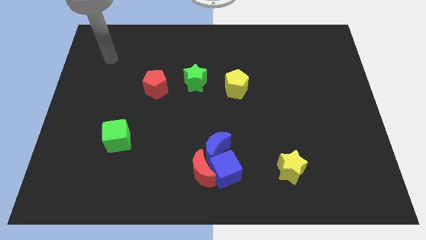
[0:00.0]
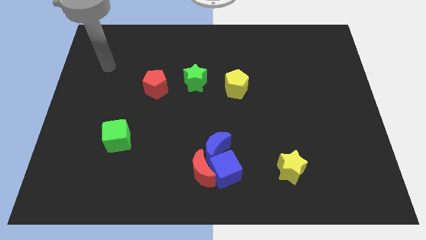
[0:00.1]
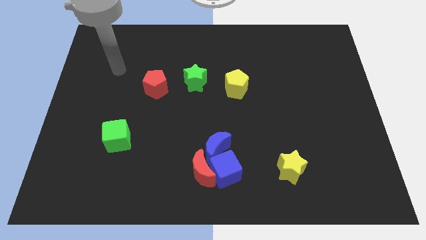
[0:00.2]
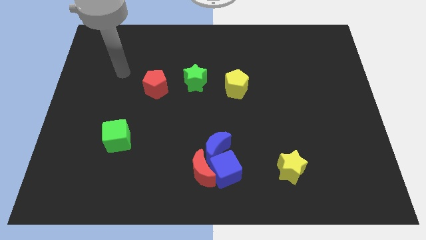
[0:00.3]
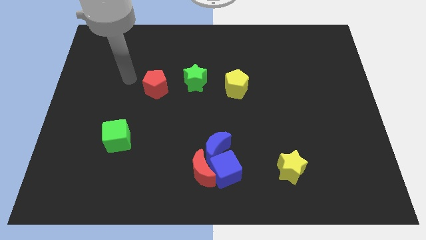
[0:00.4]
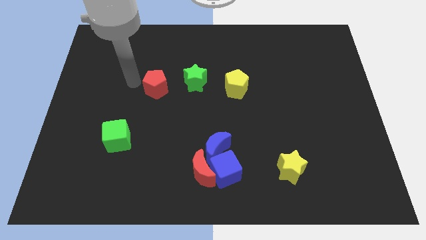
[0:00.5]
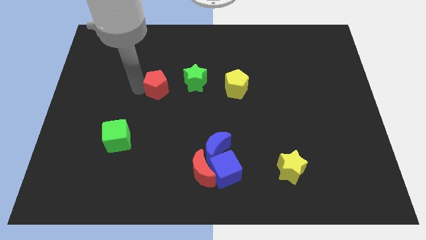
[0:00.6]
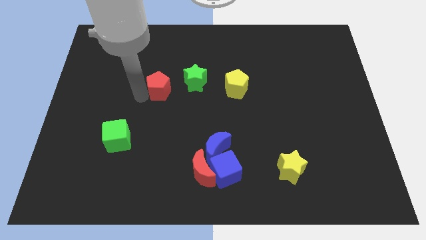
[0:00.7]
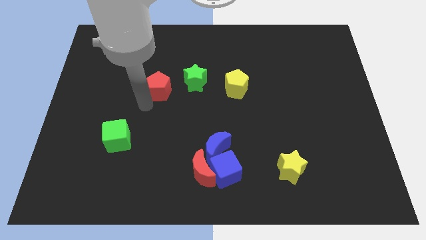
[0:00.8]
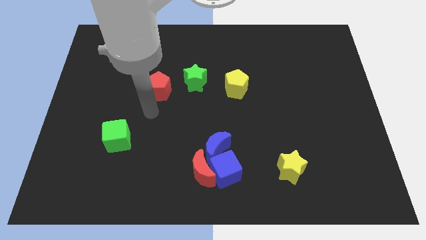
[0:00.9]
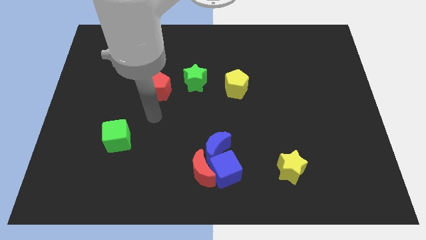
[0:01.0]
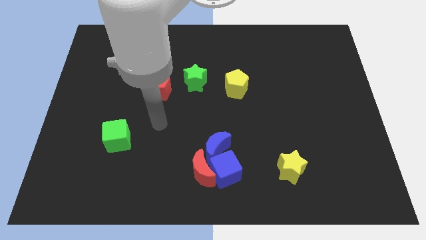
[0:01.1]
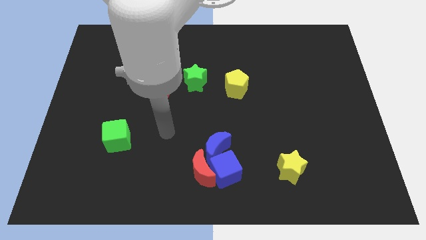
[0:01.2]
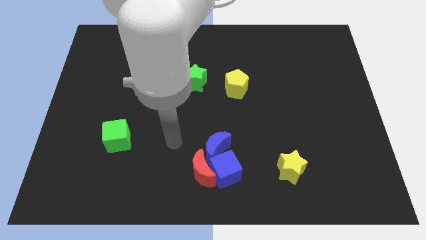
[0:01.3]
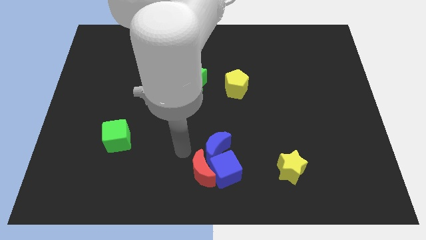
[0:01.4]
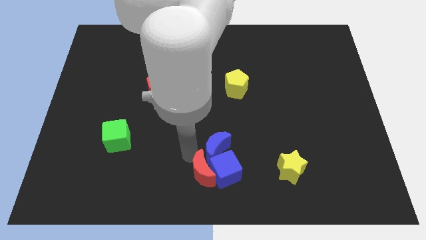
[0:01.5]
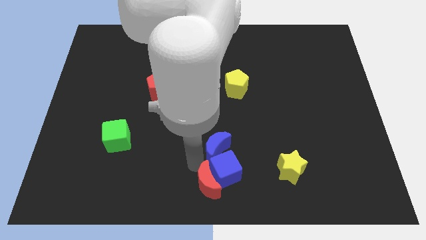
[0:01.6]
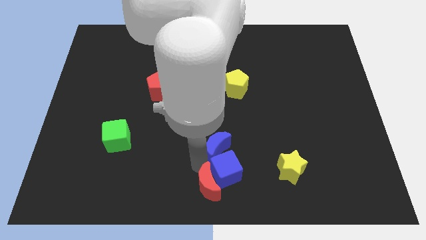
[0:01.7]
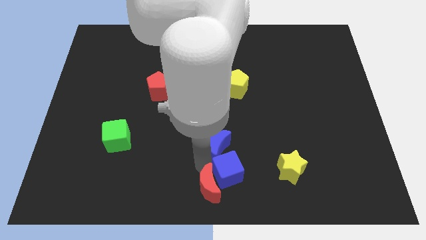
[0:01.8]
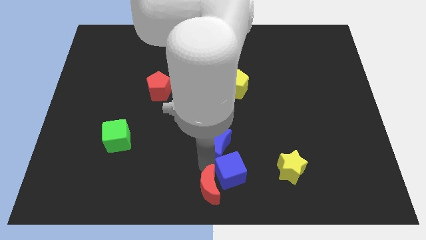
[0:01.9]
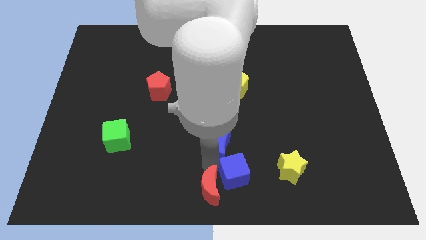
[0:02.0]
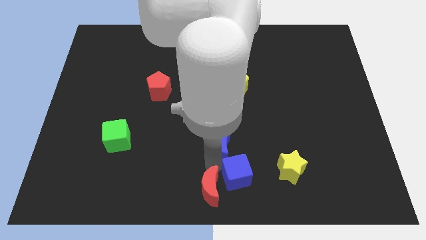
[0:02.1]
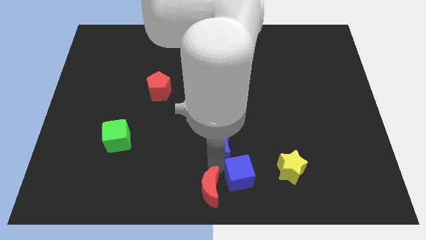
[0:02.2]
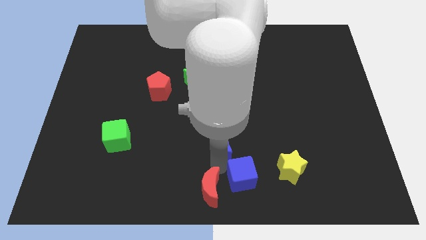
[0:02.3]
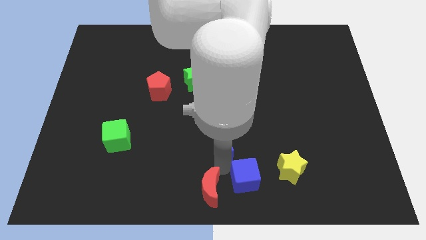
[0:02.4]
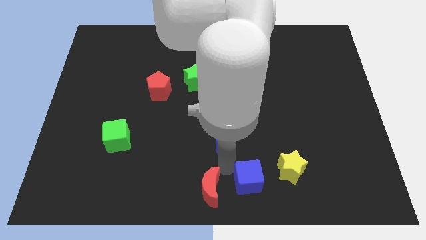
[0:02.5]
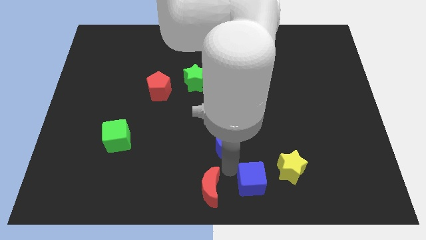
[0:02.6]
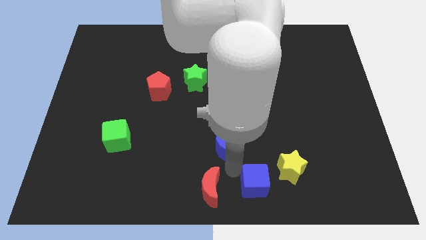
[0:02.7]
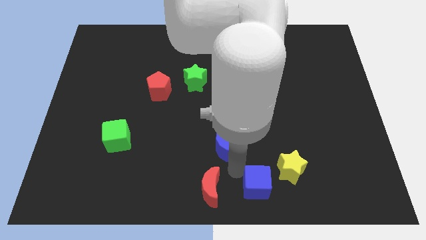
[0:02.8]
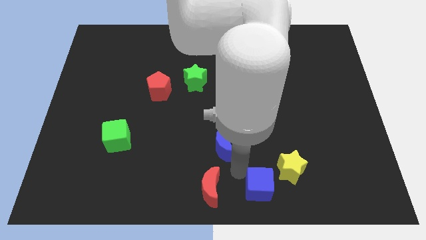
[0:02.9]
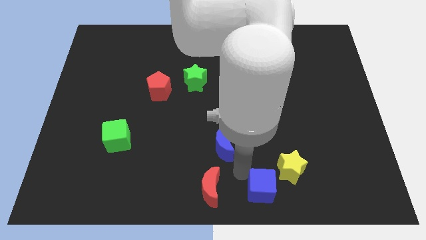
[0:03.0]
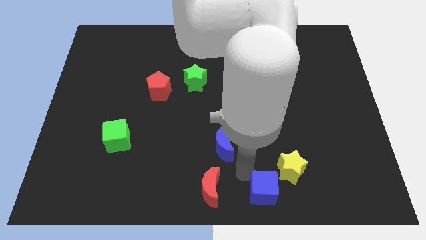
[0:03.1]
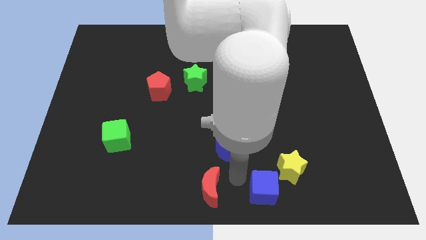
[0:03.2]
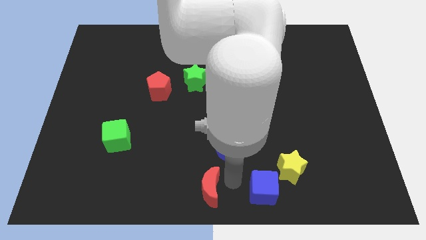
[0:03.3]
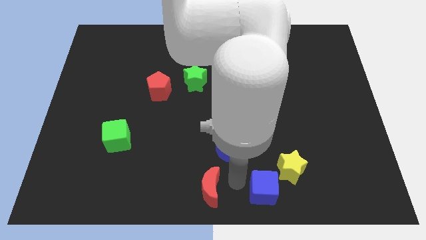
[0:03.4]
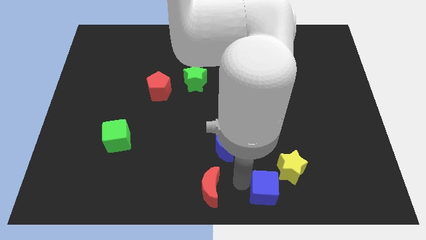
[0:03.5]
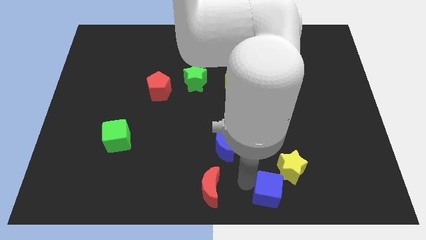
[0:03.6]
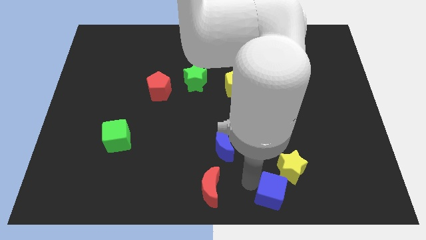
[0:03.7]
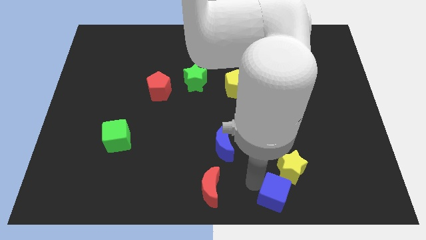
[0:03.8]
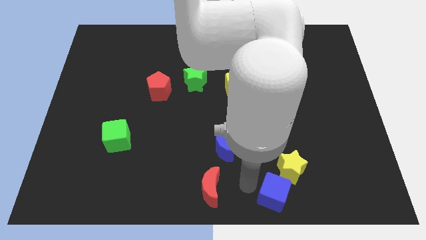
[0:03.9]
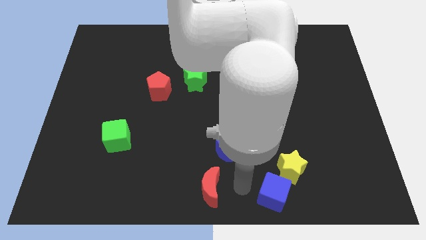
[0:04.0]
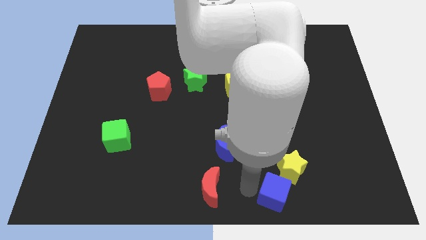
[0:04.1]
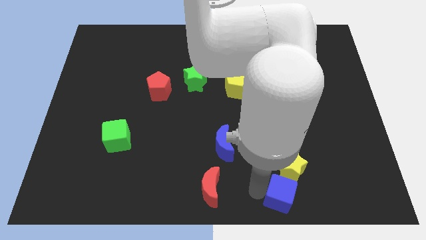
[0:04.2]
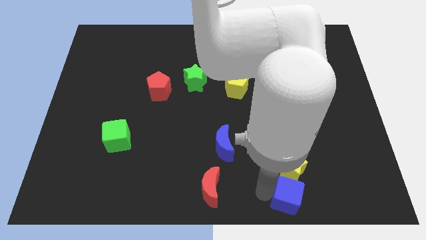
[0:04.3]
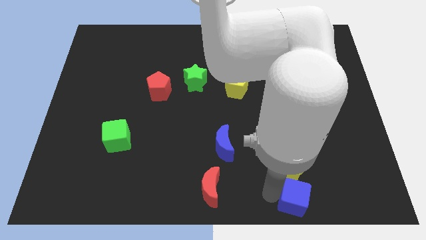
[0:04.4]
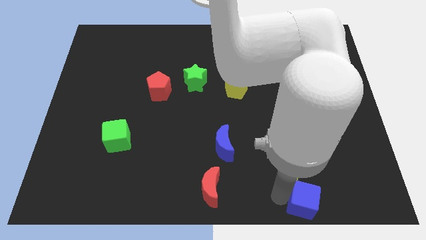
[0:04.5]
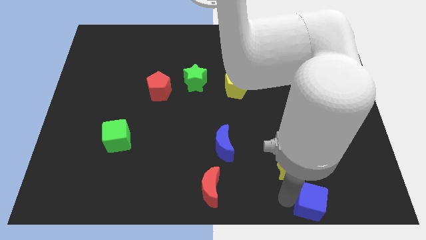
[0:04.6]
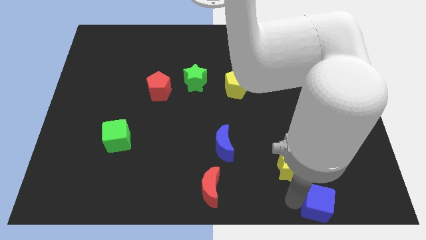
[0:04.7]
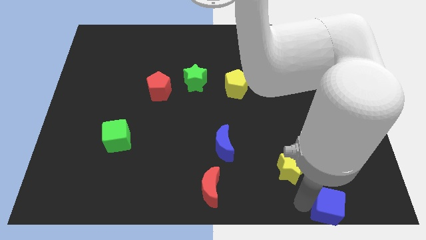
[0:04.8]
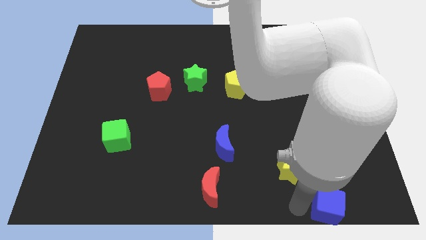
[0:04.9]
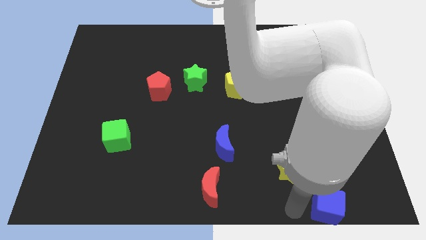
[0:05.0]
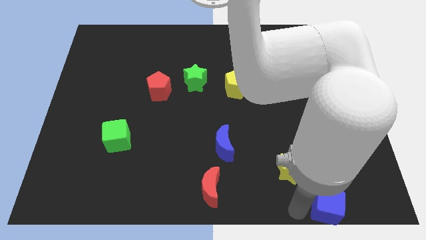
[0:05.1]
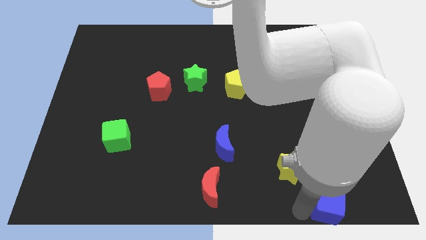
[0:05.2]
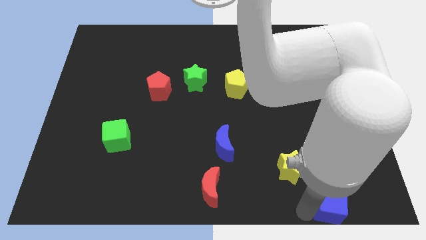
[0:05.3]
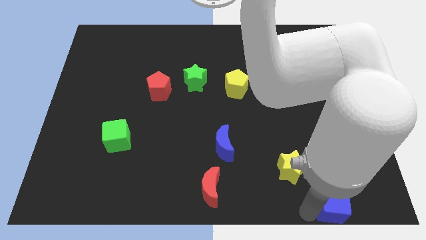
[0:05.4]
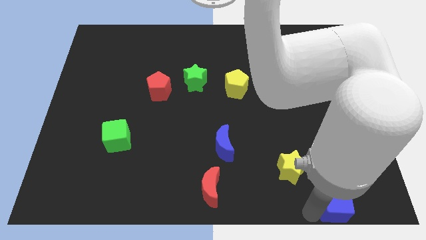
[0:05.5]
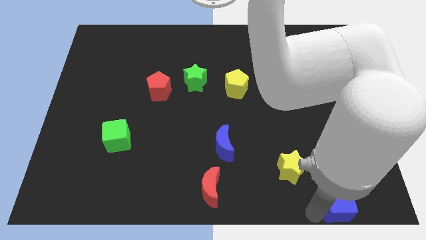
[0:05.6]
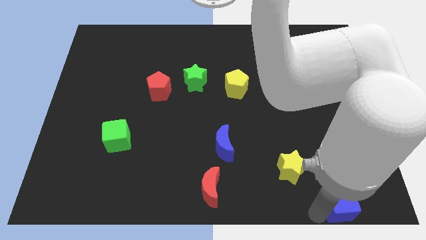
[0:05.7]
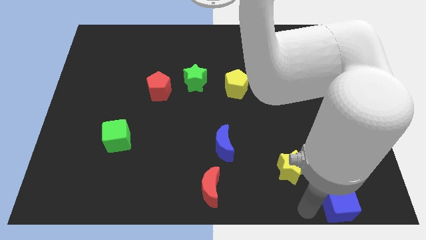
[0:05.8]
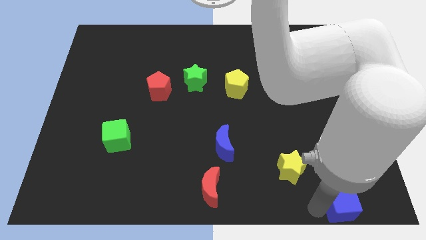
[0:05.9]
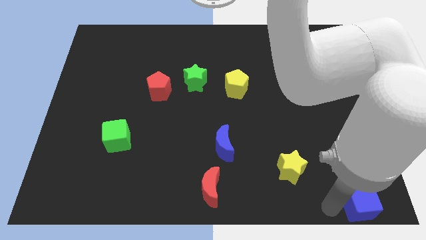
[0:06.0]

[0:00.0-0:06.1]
move the blue cube to the bottom right corner

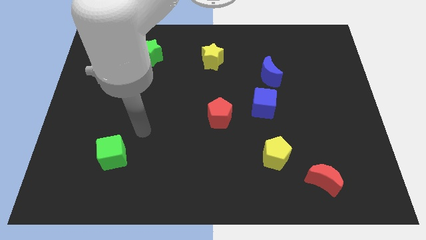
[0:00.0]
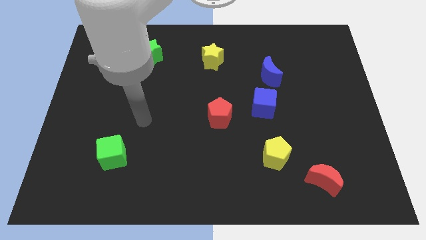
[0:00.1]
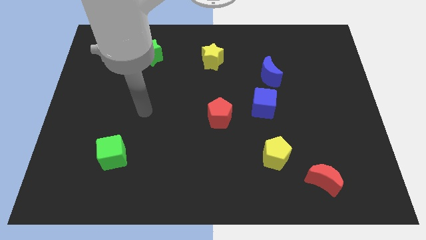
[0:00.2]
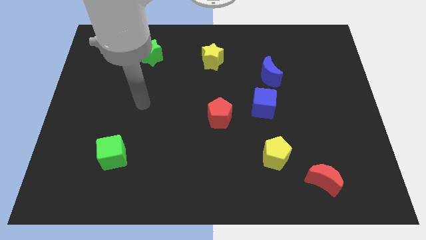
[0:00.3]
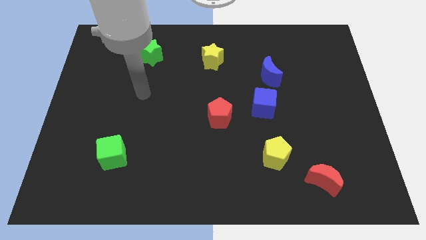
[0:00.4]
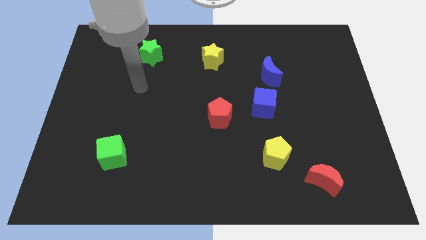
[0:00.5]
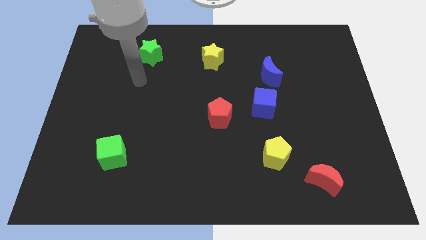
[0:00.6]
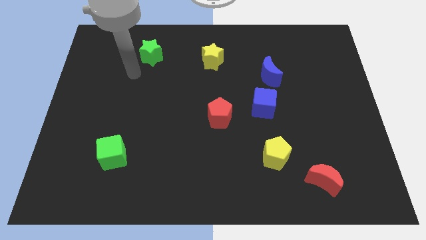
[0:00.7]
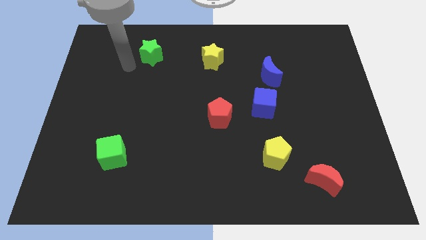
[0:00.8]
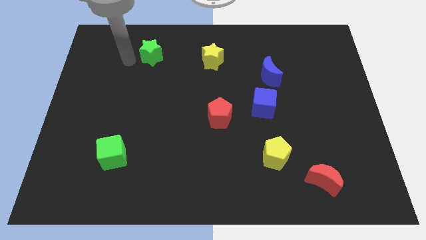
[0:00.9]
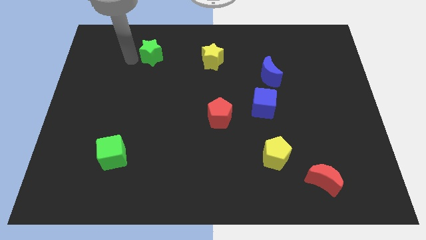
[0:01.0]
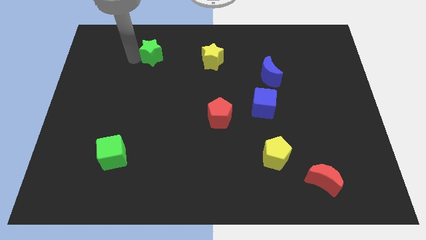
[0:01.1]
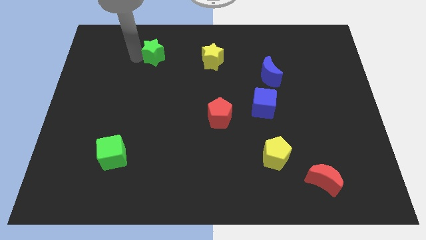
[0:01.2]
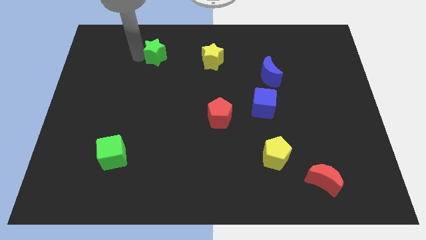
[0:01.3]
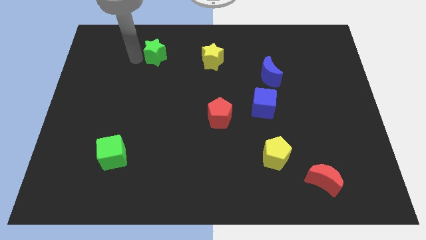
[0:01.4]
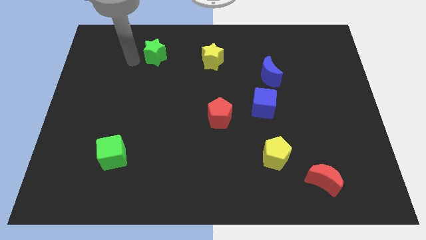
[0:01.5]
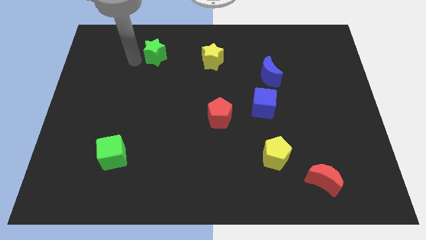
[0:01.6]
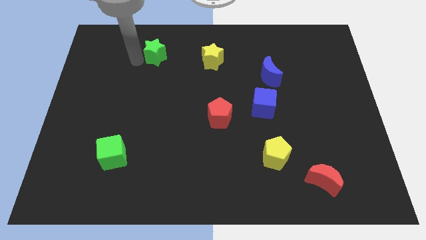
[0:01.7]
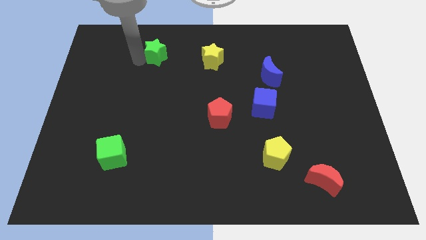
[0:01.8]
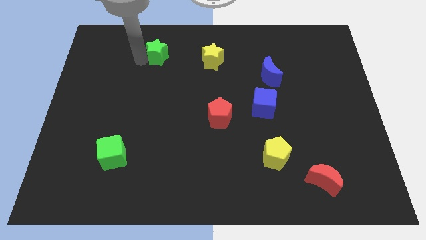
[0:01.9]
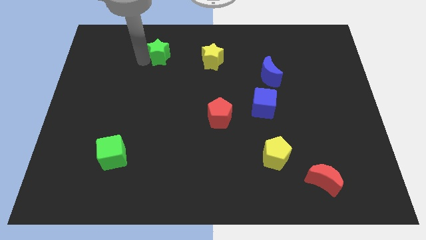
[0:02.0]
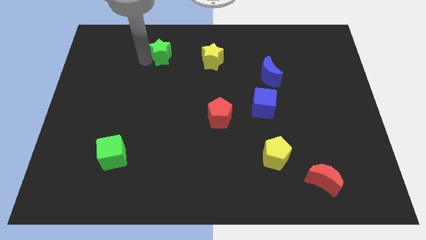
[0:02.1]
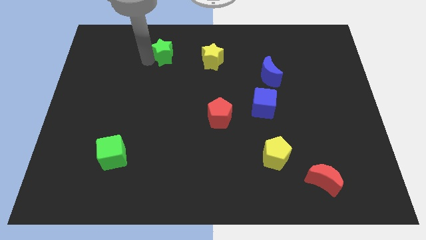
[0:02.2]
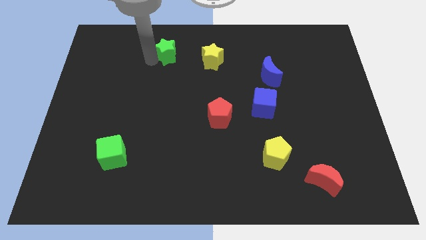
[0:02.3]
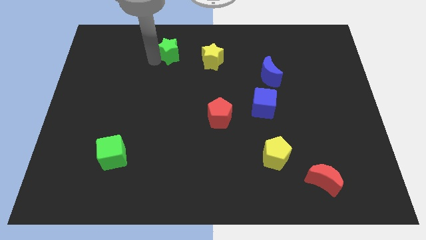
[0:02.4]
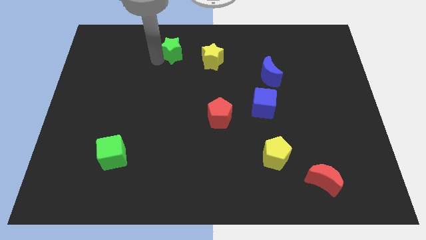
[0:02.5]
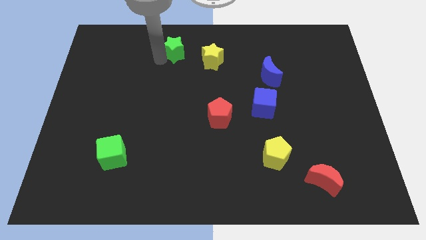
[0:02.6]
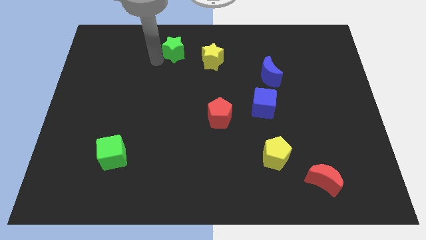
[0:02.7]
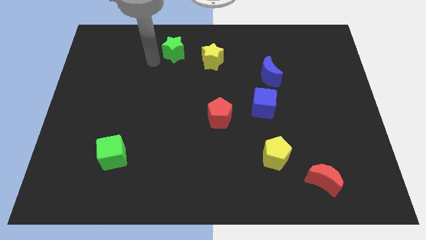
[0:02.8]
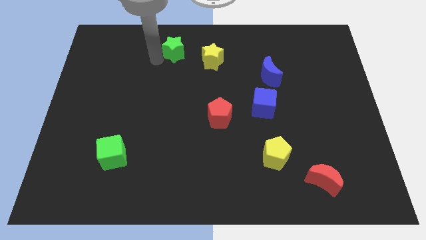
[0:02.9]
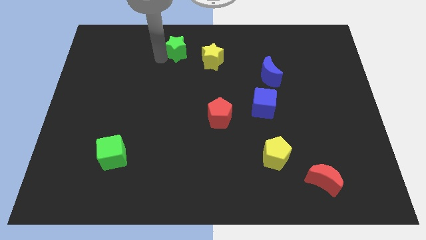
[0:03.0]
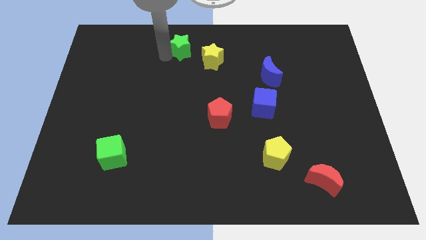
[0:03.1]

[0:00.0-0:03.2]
move the green star to the top
